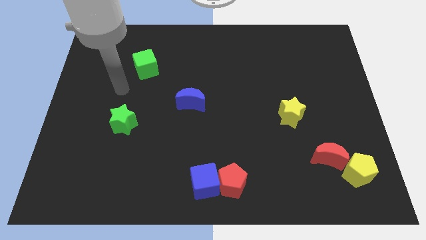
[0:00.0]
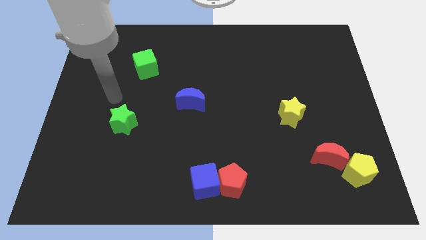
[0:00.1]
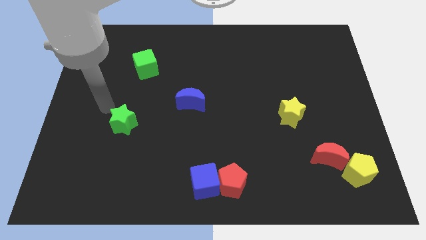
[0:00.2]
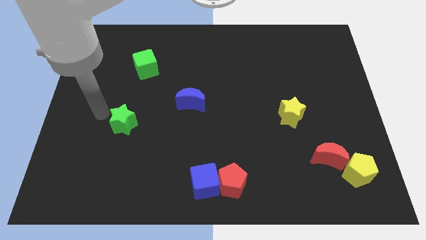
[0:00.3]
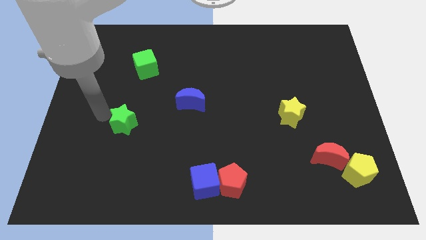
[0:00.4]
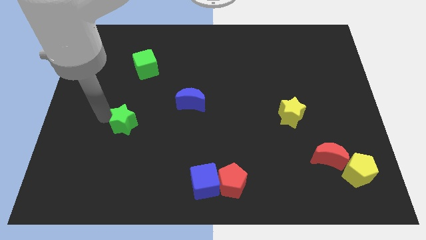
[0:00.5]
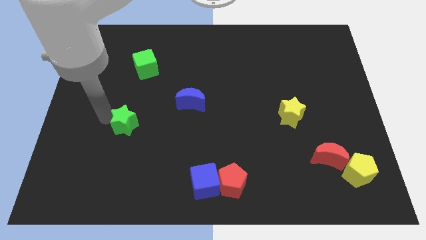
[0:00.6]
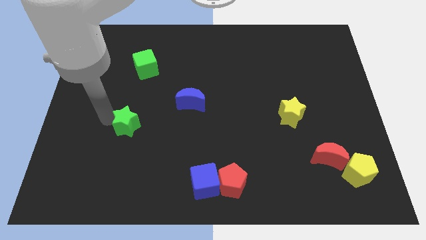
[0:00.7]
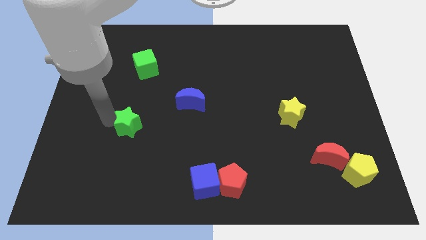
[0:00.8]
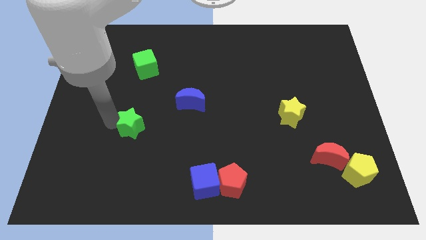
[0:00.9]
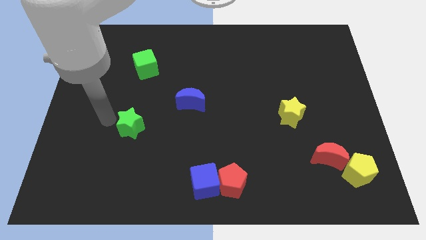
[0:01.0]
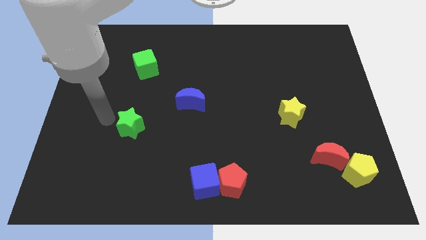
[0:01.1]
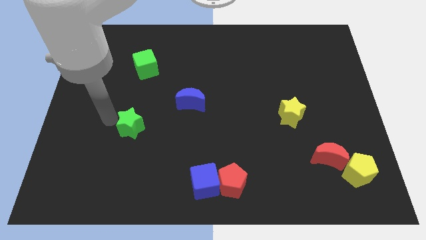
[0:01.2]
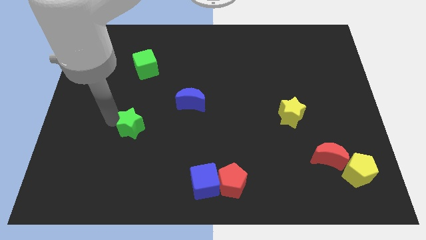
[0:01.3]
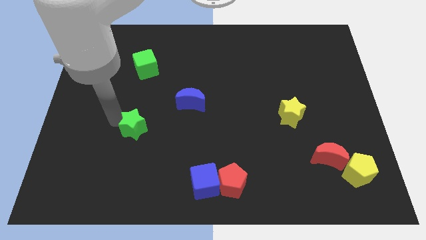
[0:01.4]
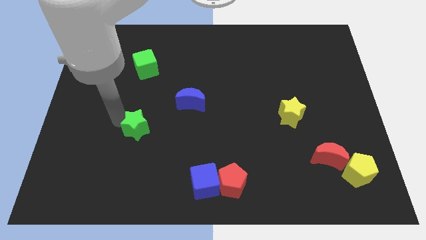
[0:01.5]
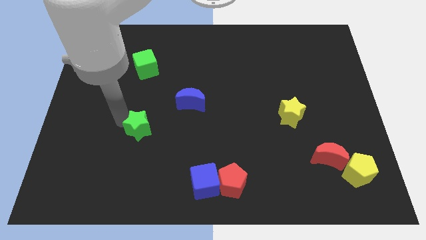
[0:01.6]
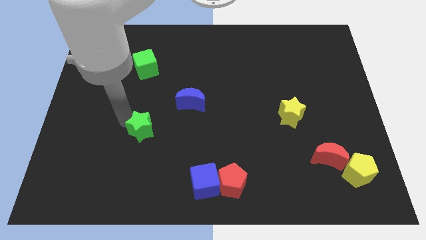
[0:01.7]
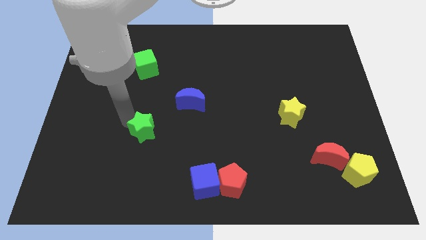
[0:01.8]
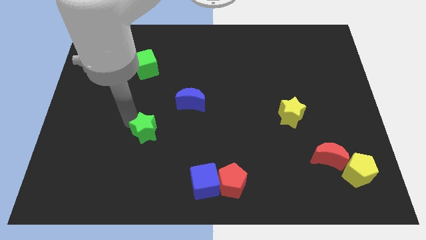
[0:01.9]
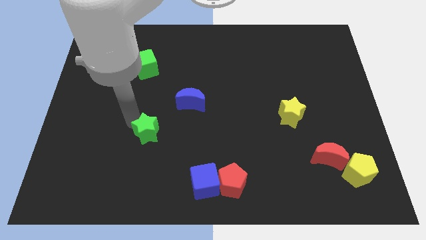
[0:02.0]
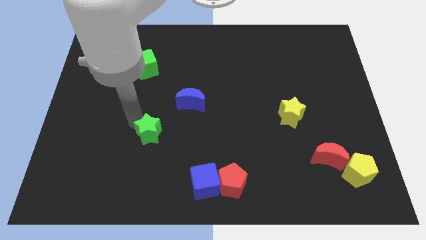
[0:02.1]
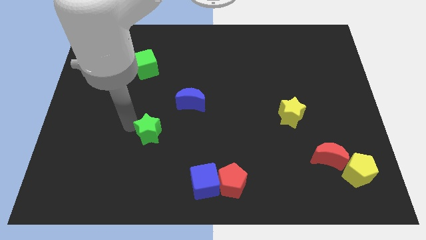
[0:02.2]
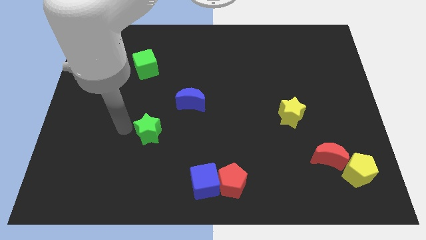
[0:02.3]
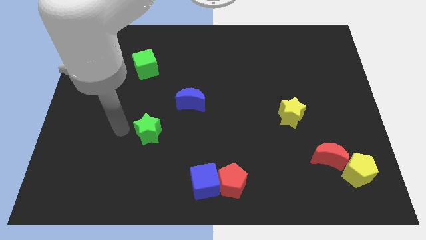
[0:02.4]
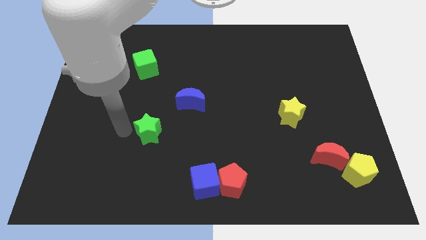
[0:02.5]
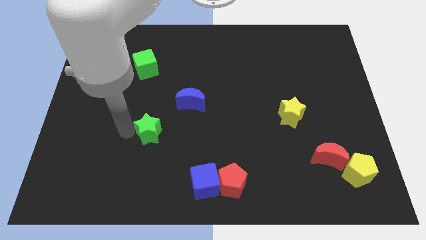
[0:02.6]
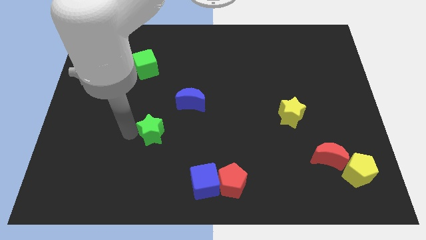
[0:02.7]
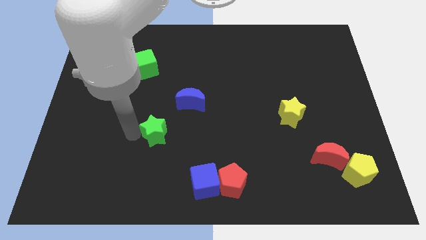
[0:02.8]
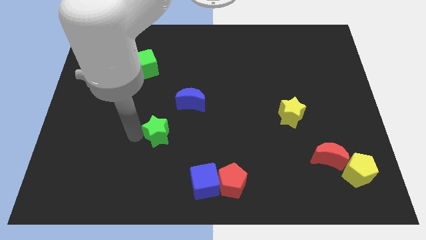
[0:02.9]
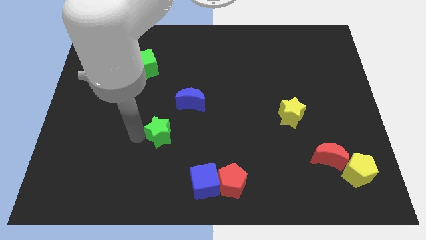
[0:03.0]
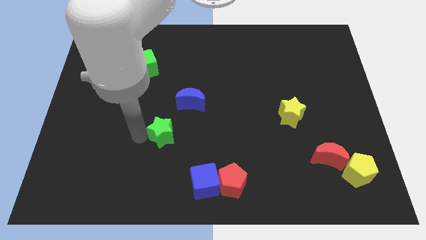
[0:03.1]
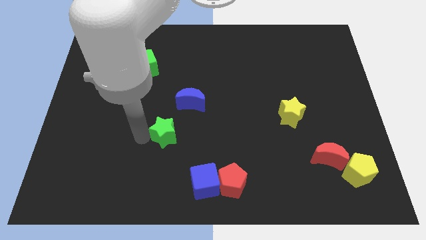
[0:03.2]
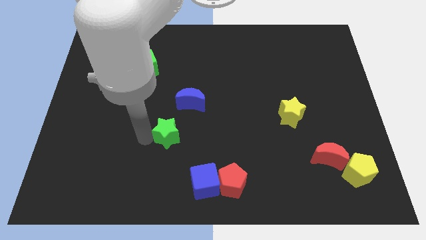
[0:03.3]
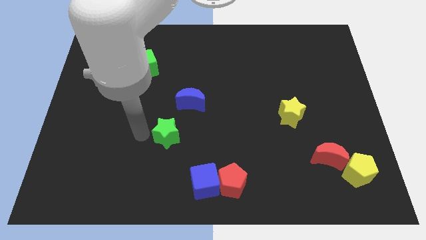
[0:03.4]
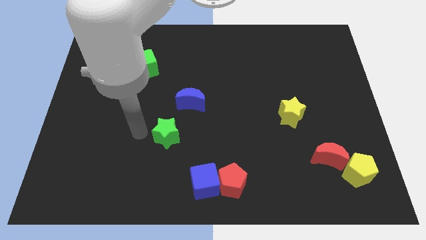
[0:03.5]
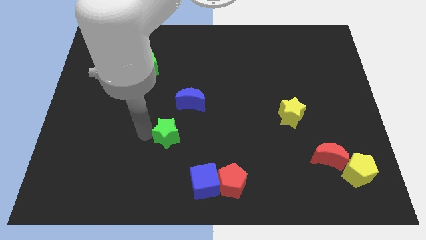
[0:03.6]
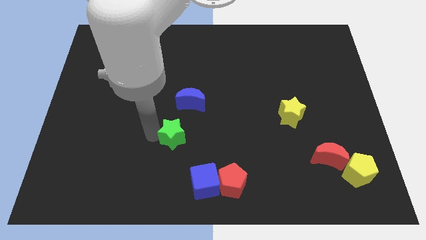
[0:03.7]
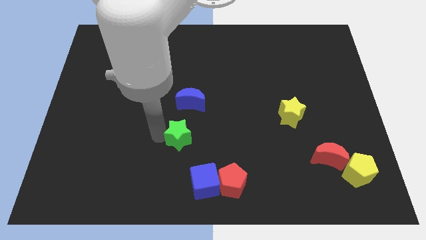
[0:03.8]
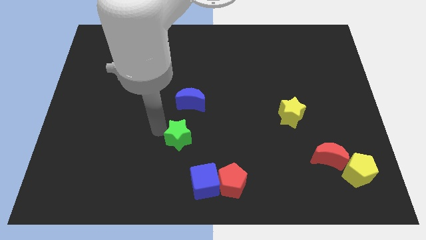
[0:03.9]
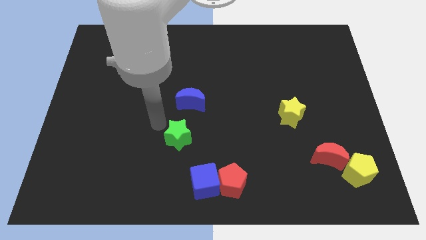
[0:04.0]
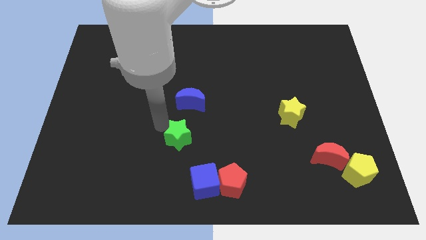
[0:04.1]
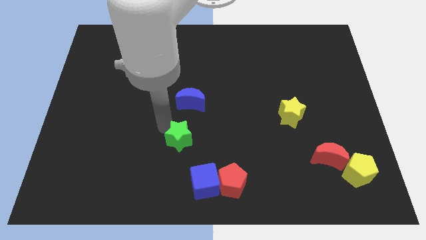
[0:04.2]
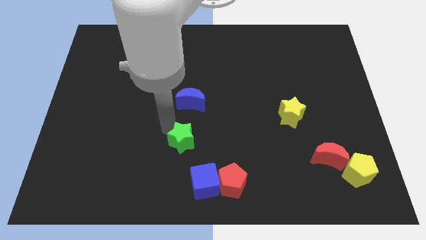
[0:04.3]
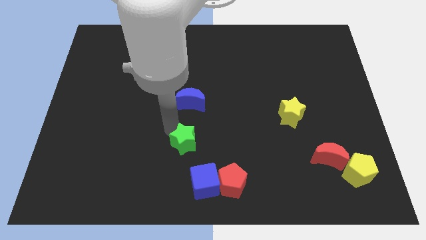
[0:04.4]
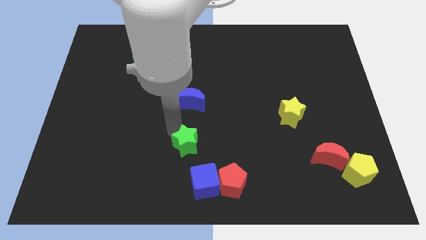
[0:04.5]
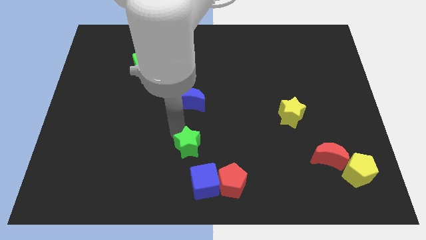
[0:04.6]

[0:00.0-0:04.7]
slide the green star to the top left side of the red pentagon

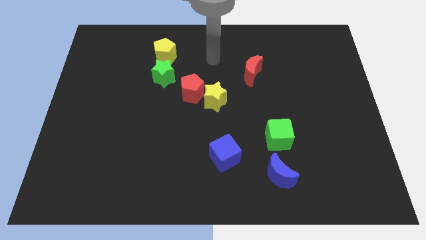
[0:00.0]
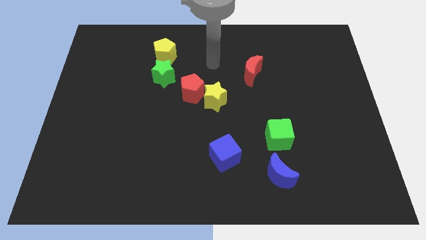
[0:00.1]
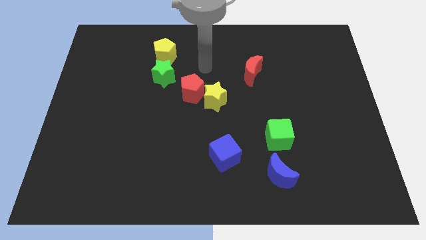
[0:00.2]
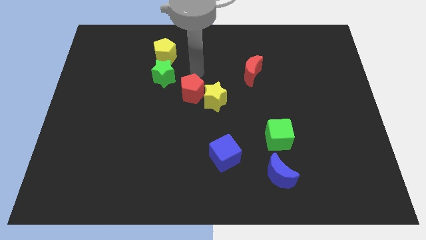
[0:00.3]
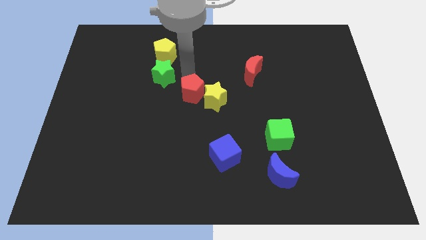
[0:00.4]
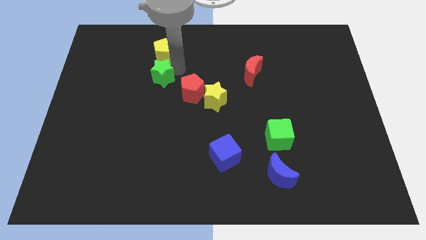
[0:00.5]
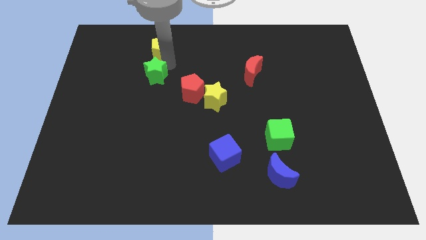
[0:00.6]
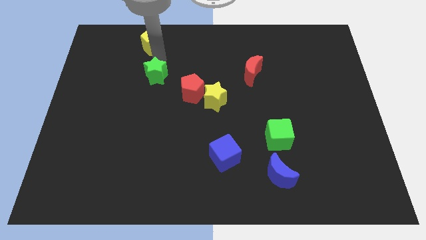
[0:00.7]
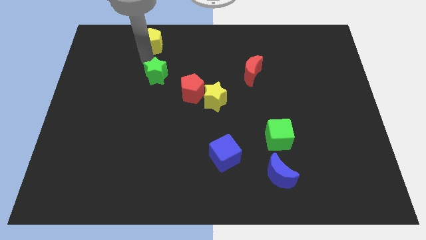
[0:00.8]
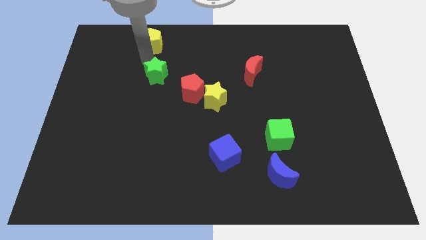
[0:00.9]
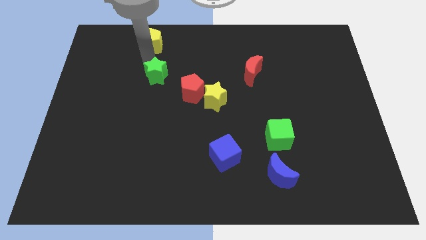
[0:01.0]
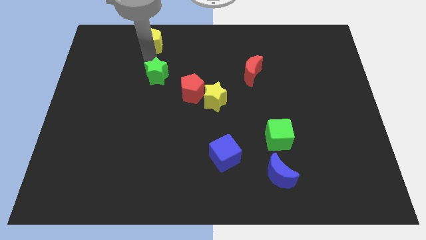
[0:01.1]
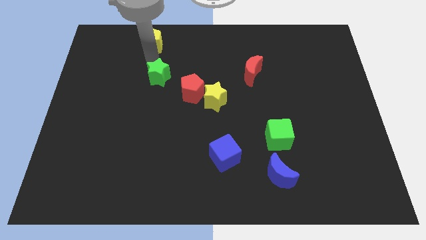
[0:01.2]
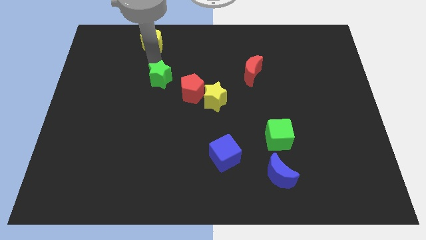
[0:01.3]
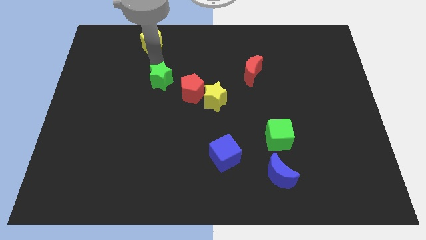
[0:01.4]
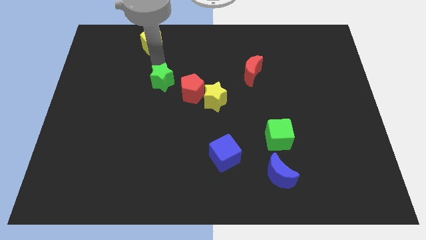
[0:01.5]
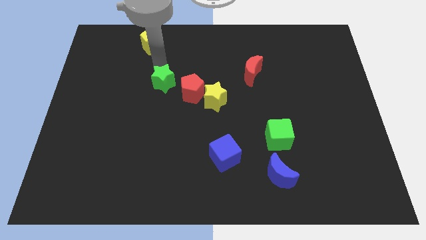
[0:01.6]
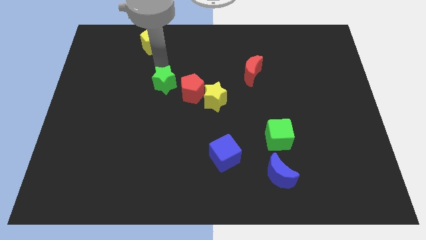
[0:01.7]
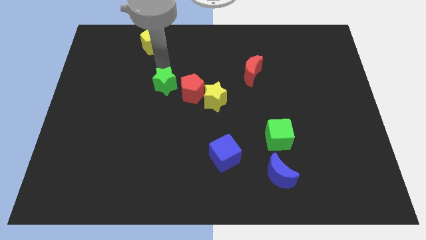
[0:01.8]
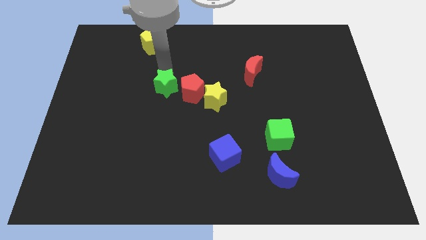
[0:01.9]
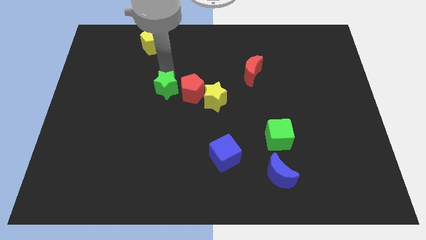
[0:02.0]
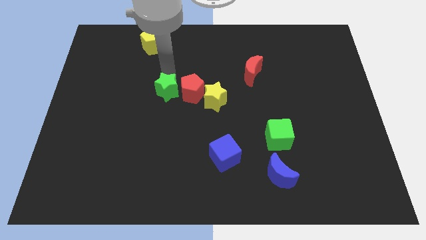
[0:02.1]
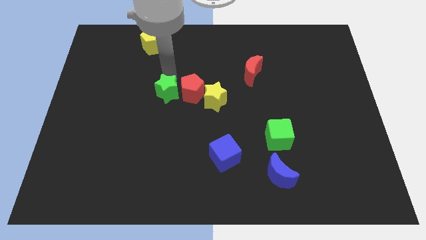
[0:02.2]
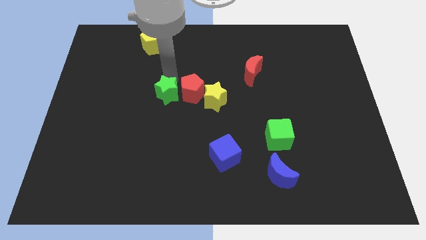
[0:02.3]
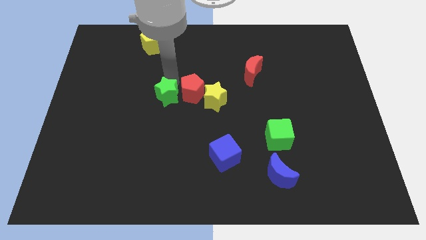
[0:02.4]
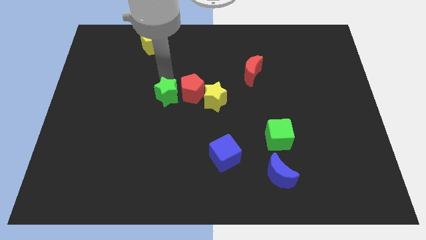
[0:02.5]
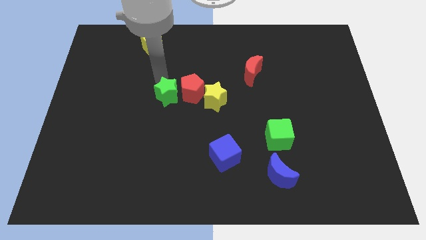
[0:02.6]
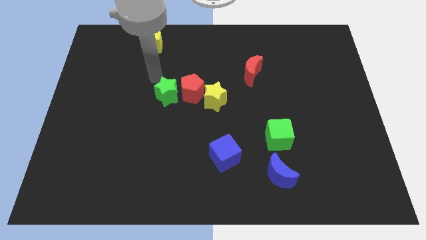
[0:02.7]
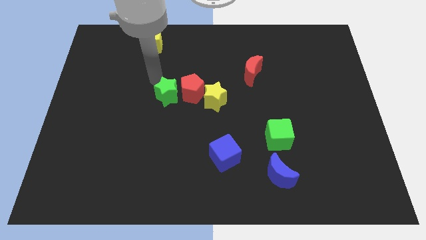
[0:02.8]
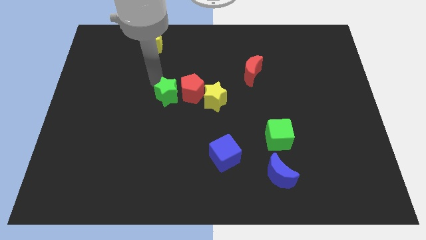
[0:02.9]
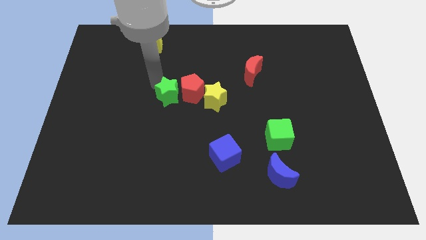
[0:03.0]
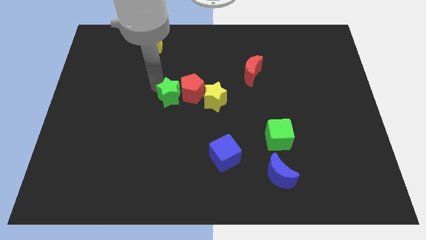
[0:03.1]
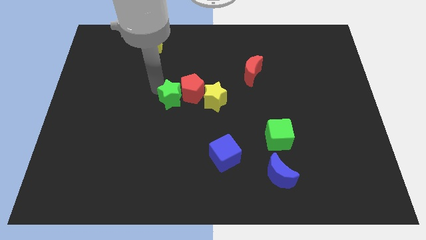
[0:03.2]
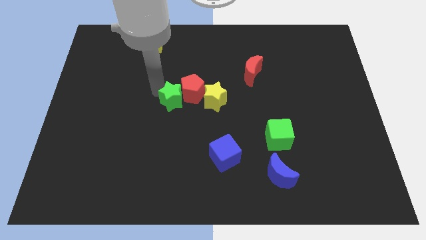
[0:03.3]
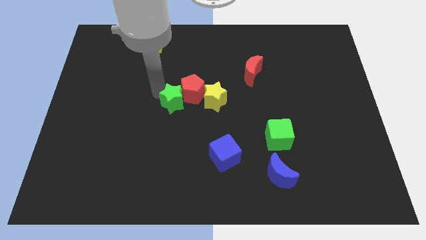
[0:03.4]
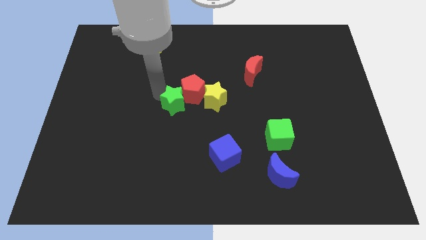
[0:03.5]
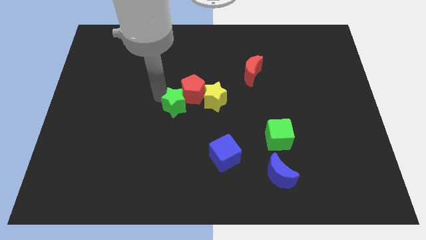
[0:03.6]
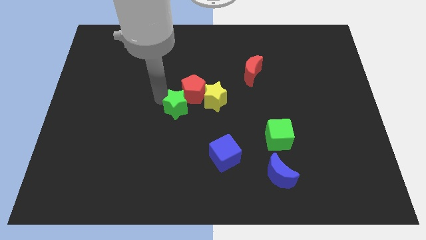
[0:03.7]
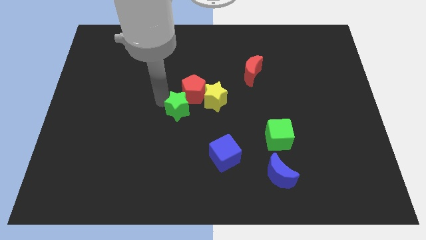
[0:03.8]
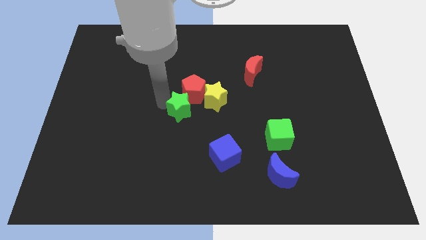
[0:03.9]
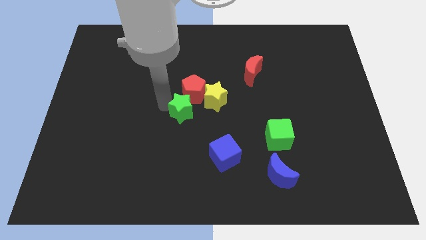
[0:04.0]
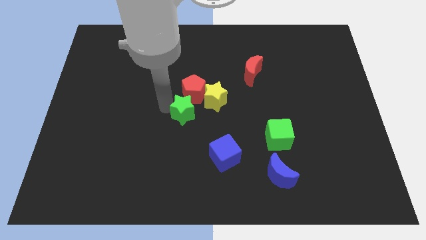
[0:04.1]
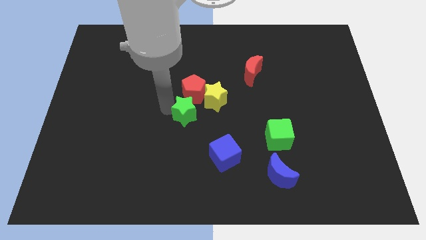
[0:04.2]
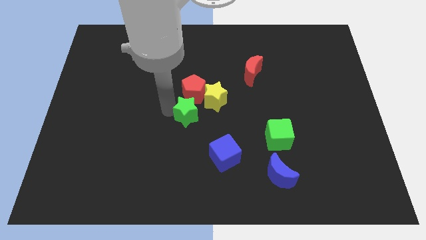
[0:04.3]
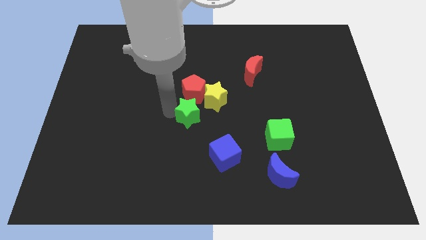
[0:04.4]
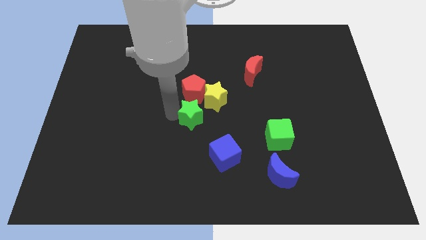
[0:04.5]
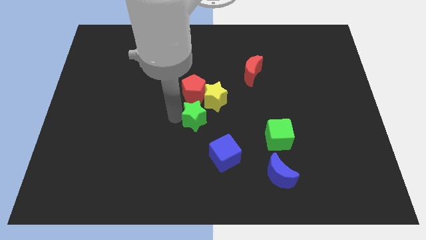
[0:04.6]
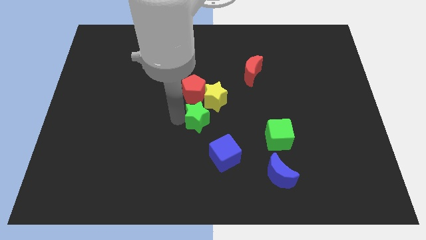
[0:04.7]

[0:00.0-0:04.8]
move the green star to the bottom side of the yellow star
